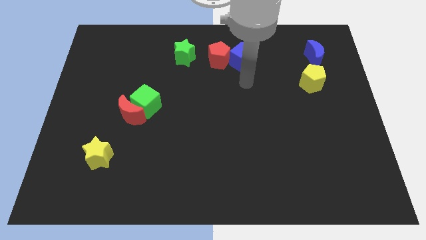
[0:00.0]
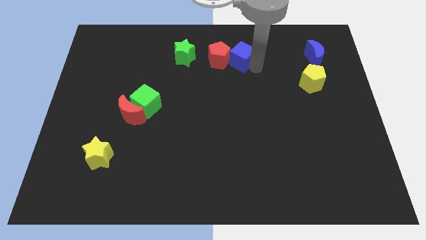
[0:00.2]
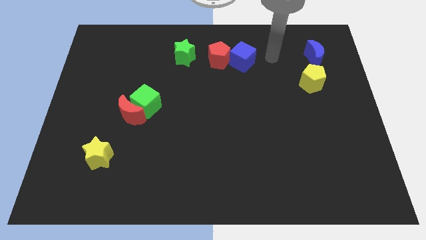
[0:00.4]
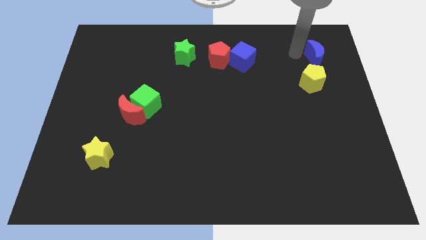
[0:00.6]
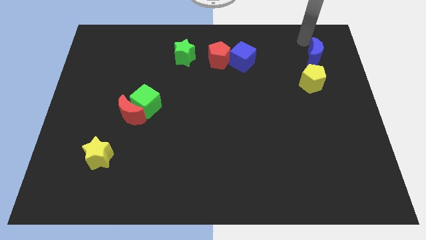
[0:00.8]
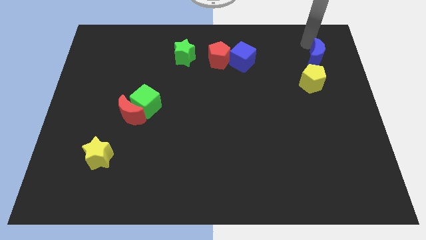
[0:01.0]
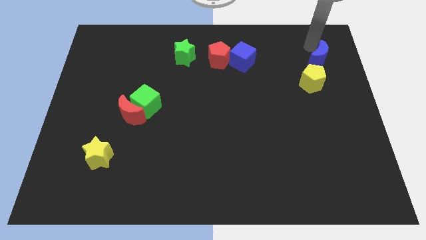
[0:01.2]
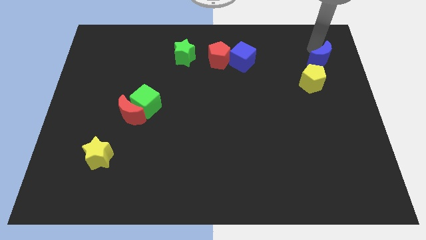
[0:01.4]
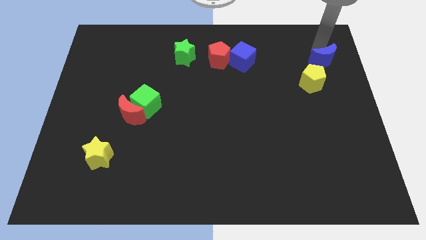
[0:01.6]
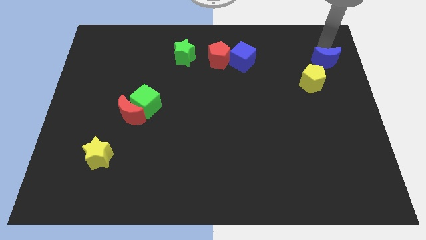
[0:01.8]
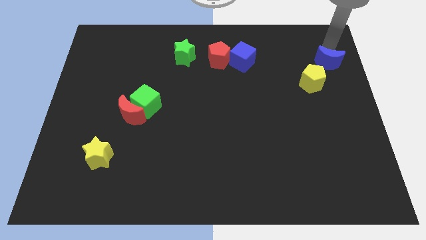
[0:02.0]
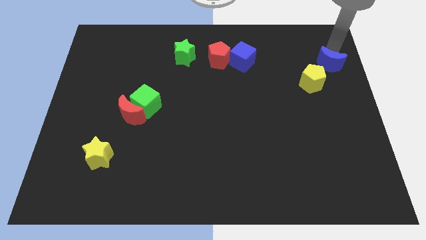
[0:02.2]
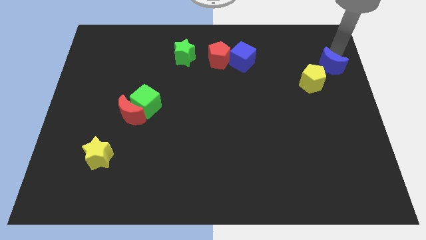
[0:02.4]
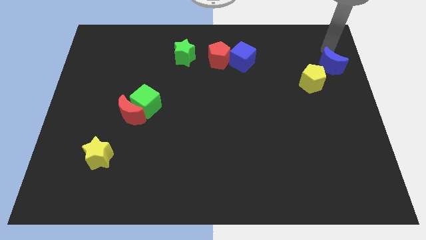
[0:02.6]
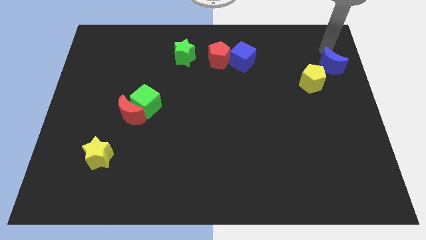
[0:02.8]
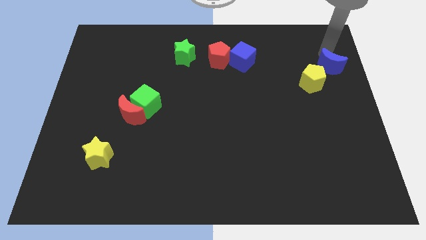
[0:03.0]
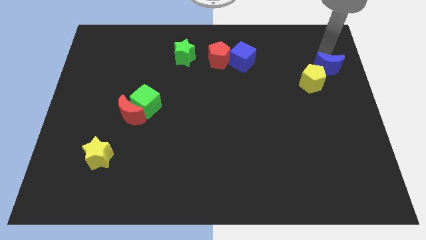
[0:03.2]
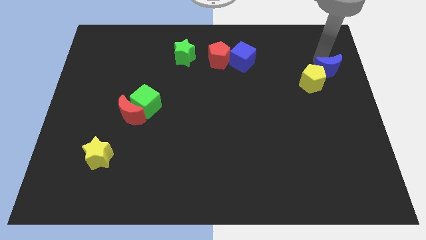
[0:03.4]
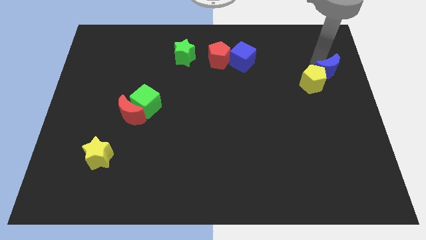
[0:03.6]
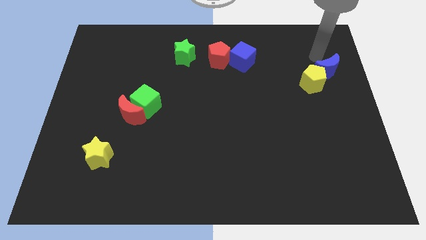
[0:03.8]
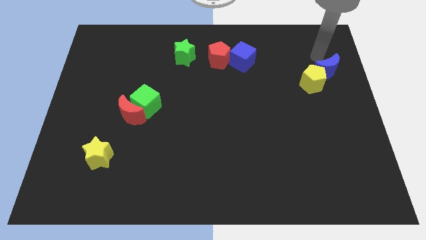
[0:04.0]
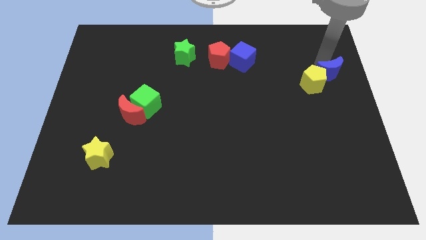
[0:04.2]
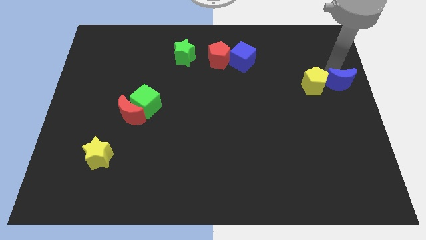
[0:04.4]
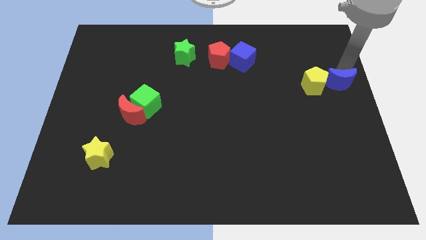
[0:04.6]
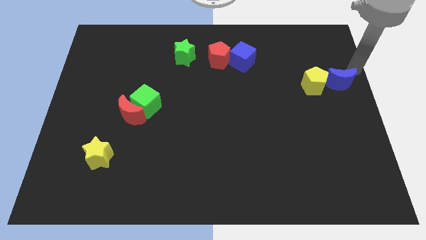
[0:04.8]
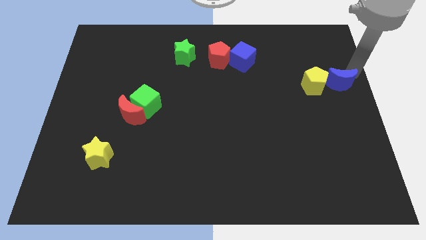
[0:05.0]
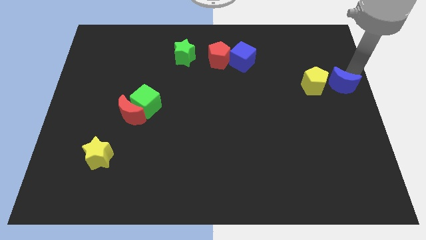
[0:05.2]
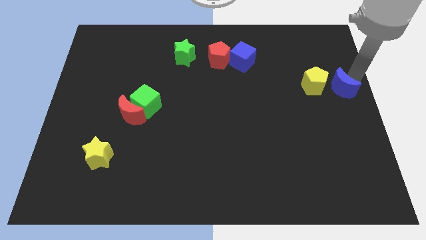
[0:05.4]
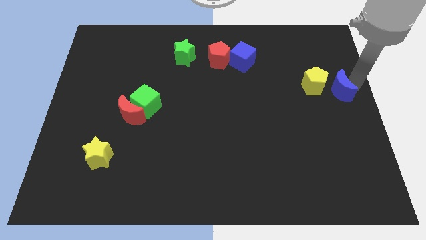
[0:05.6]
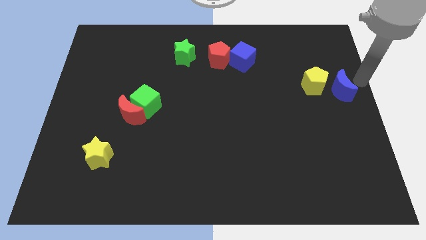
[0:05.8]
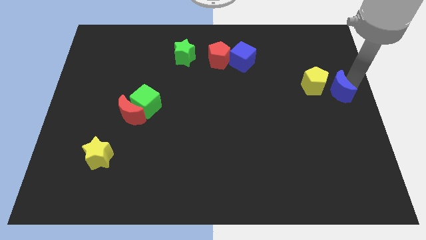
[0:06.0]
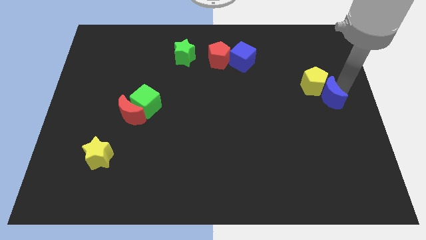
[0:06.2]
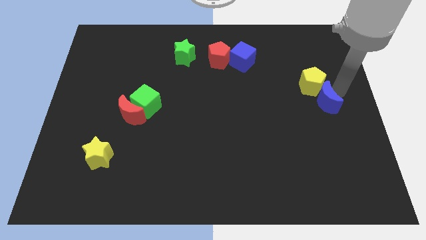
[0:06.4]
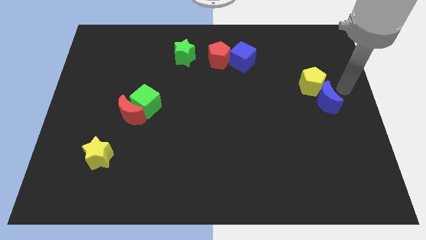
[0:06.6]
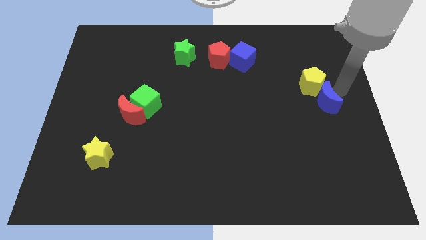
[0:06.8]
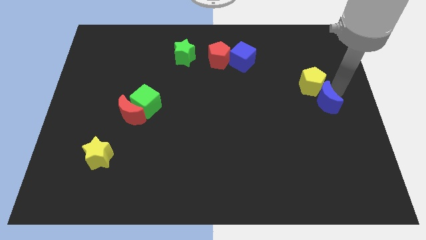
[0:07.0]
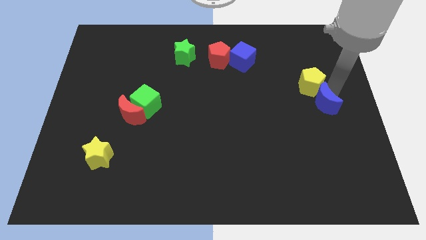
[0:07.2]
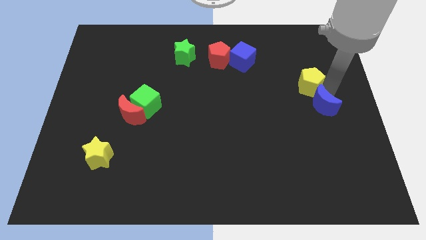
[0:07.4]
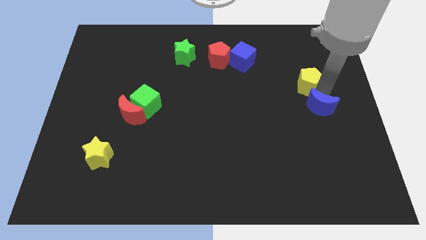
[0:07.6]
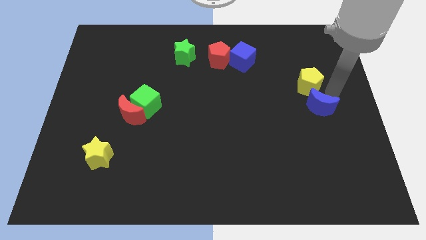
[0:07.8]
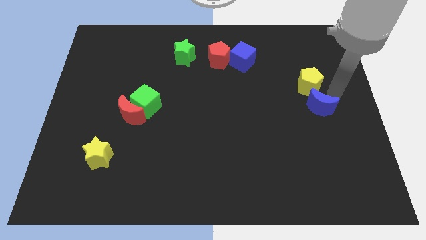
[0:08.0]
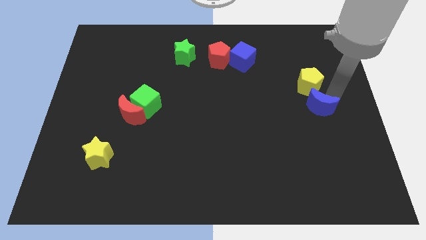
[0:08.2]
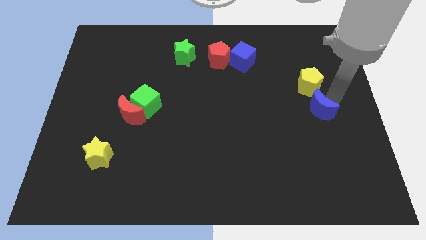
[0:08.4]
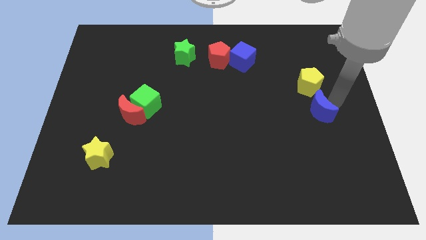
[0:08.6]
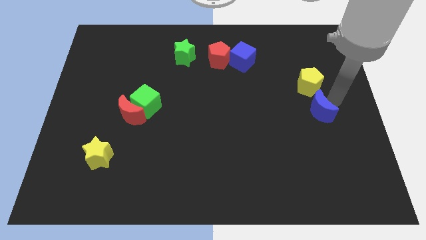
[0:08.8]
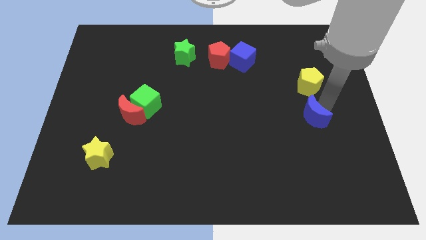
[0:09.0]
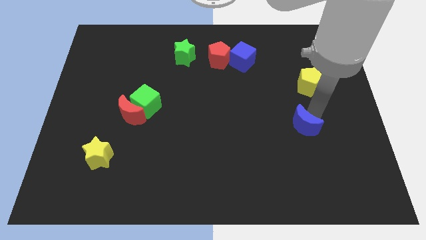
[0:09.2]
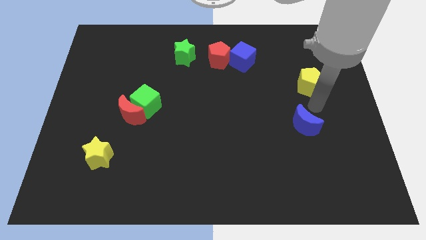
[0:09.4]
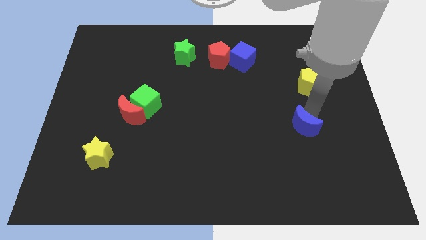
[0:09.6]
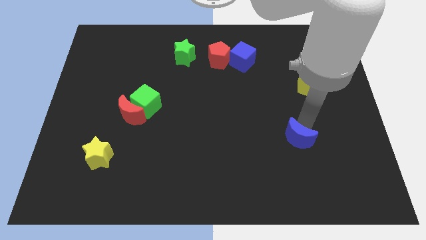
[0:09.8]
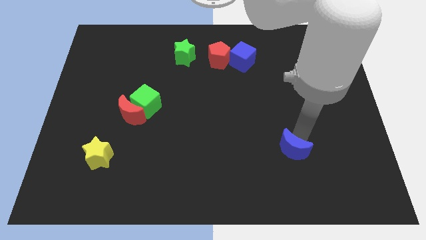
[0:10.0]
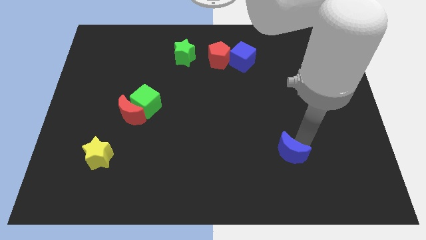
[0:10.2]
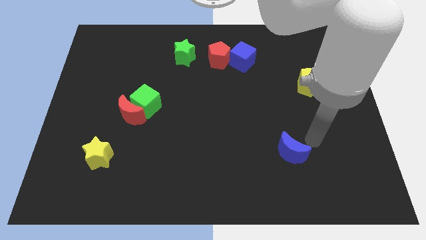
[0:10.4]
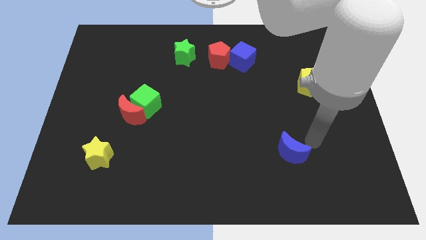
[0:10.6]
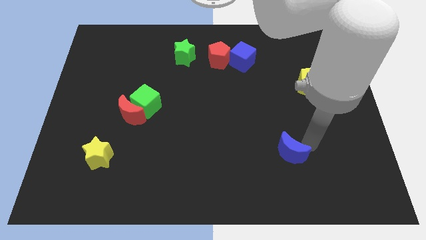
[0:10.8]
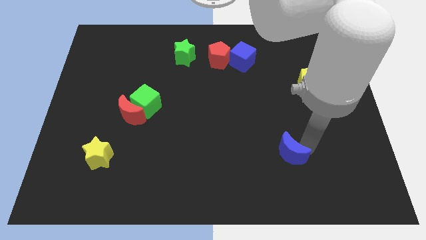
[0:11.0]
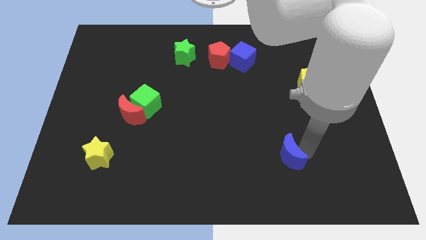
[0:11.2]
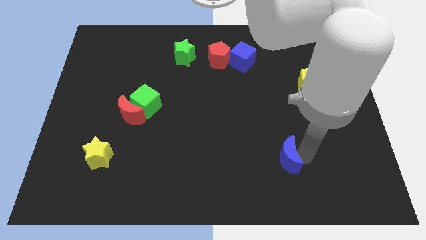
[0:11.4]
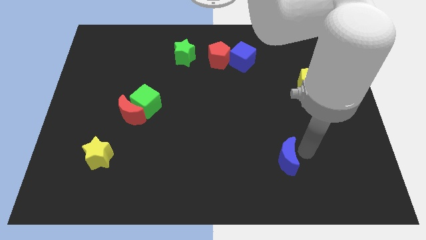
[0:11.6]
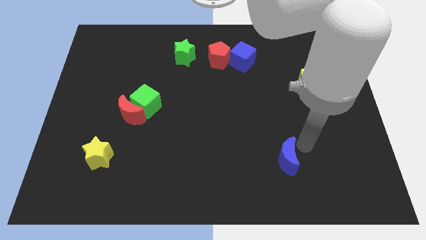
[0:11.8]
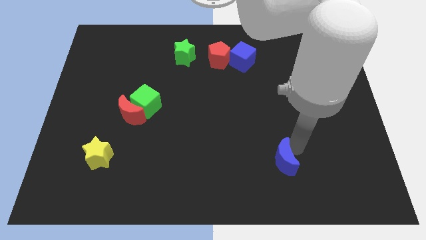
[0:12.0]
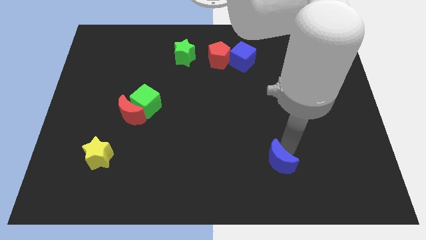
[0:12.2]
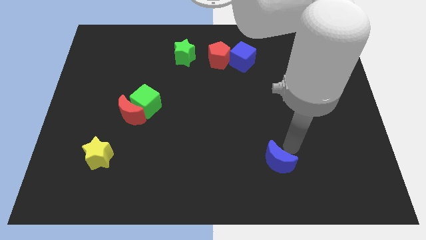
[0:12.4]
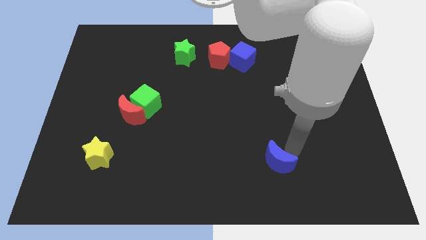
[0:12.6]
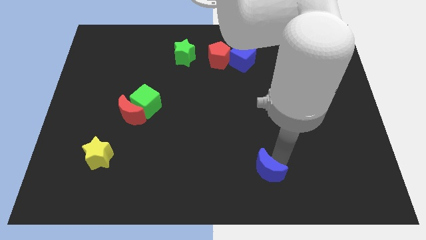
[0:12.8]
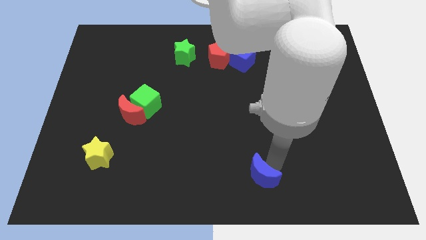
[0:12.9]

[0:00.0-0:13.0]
push the blue moon to the bottom
